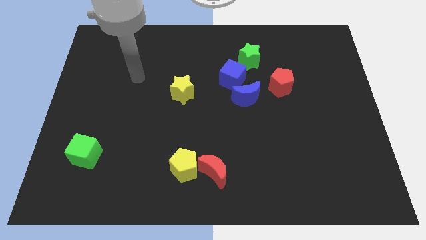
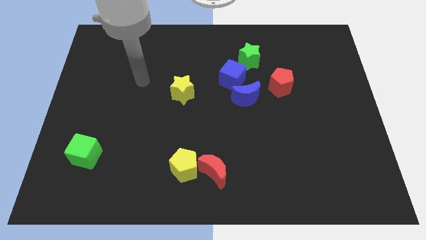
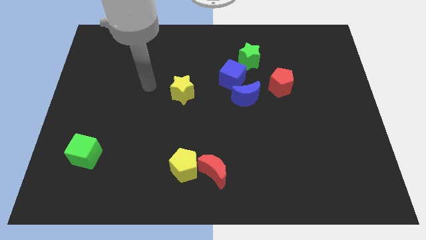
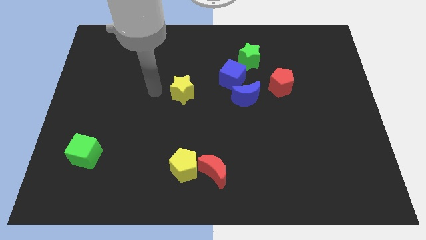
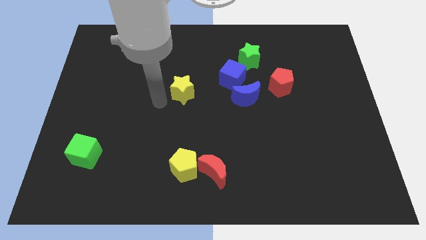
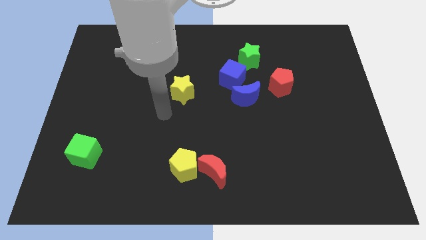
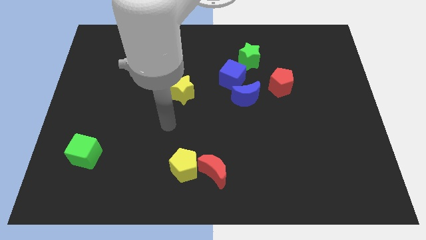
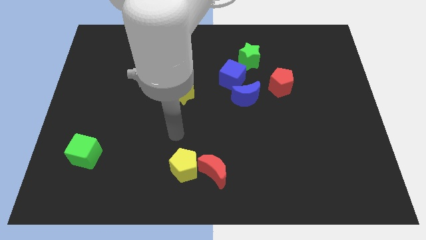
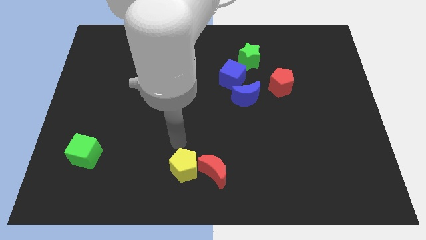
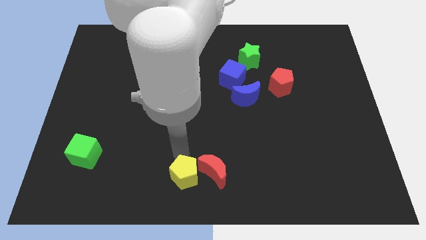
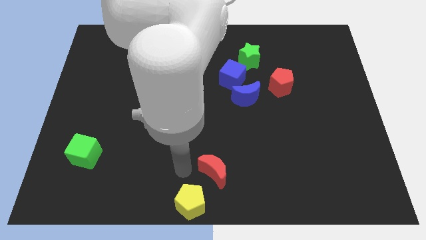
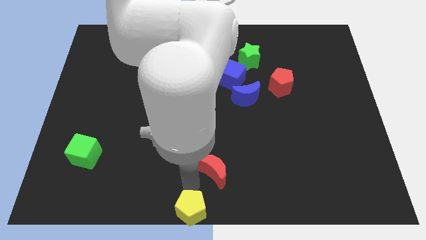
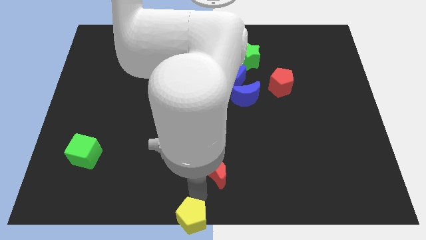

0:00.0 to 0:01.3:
pull the red moon apart from the yellow pentagon

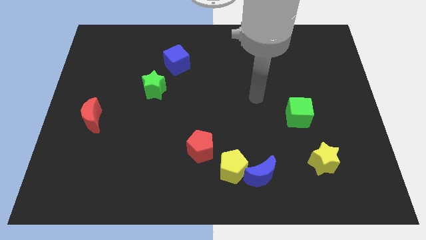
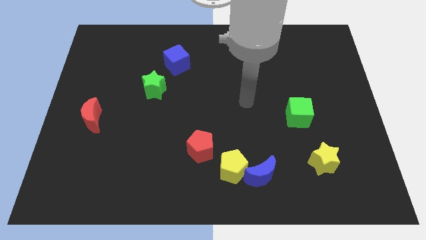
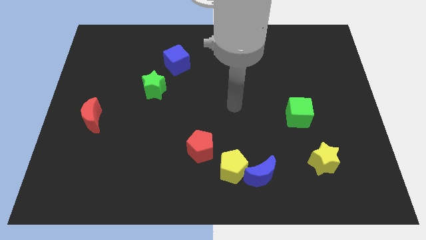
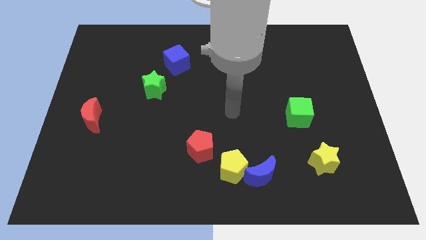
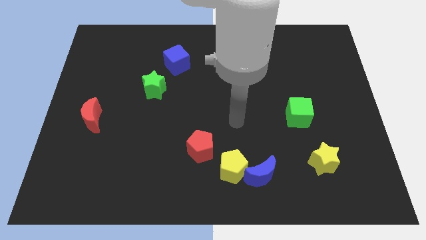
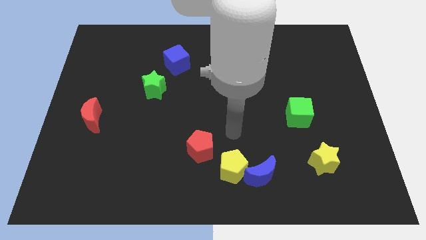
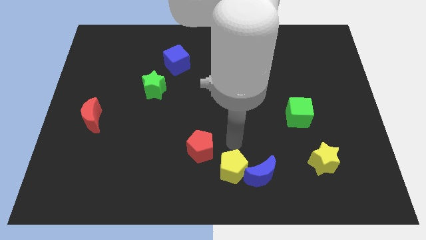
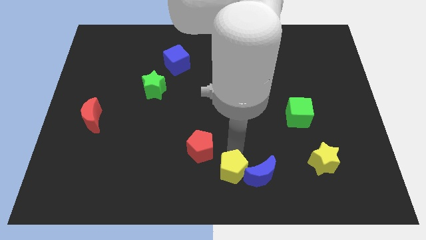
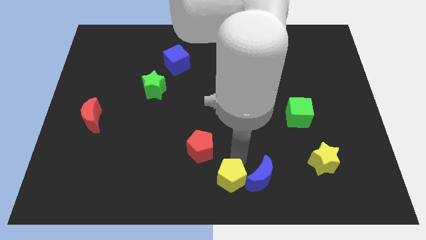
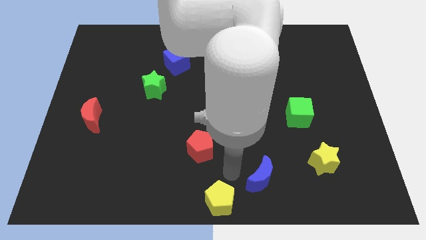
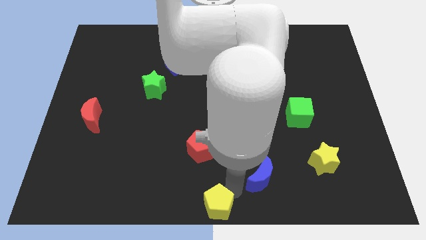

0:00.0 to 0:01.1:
separate the blue moon from the yellow pentagon

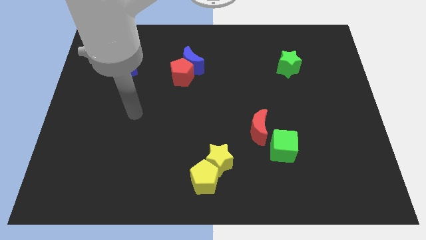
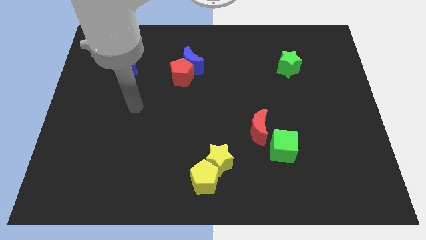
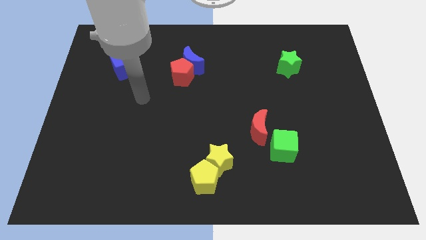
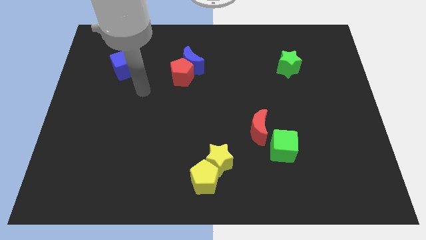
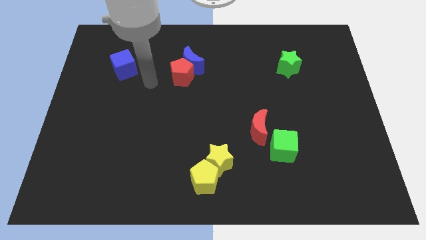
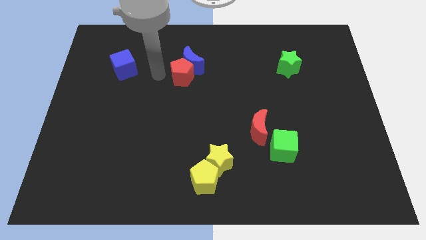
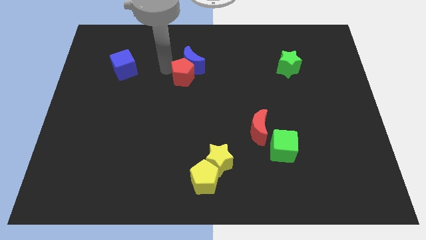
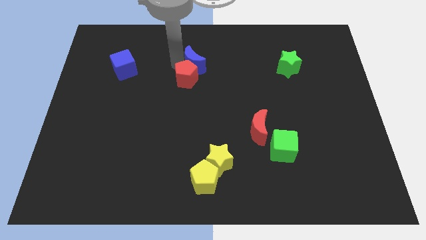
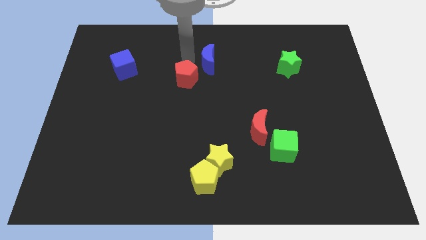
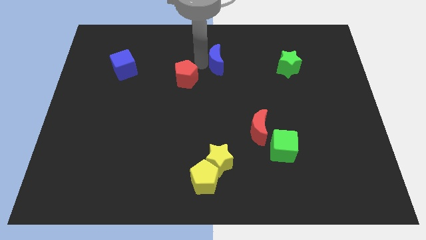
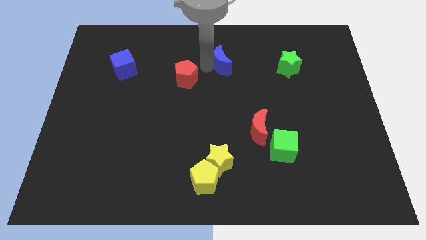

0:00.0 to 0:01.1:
separate the red pentagon from the blue moon

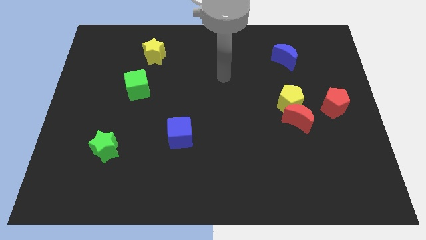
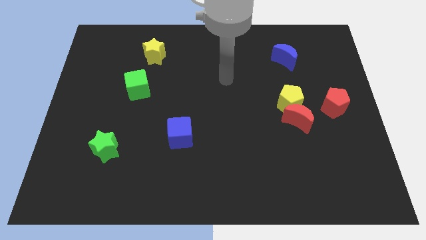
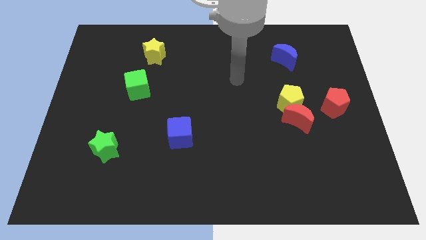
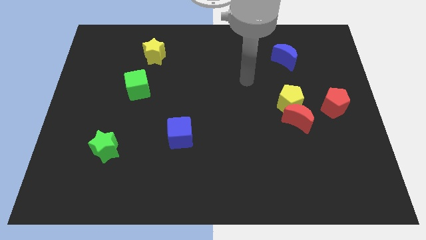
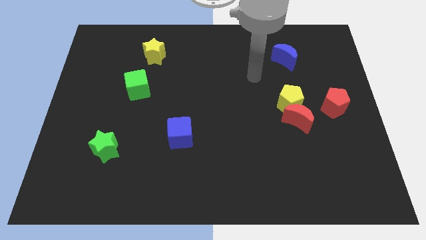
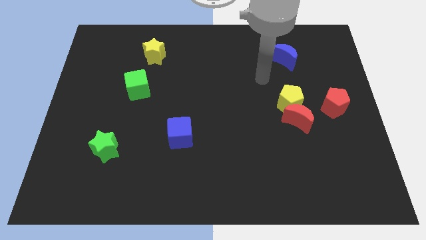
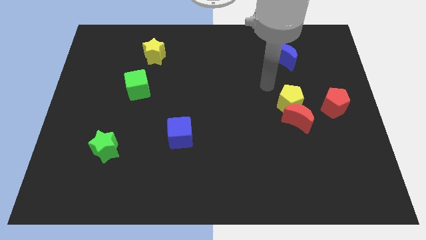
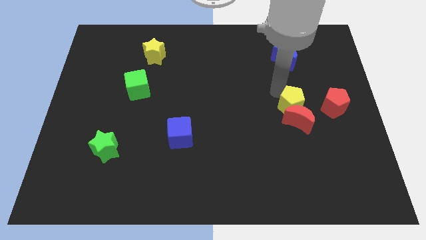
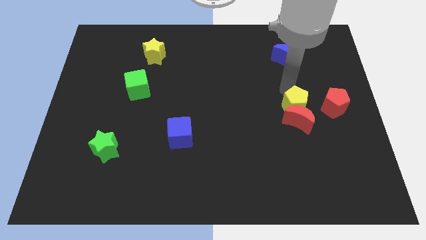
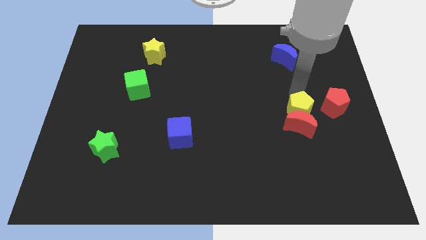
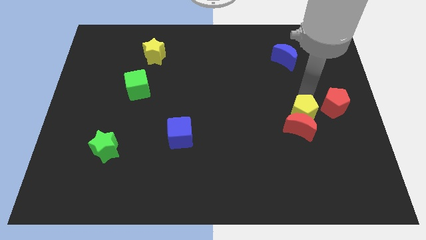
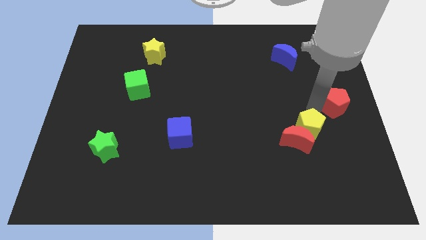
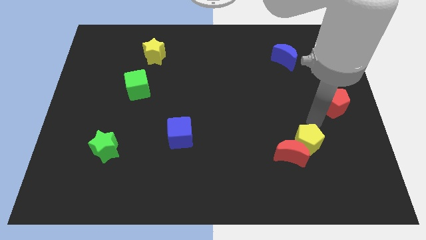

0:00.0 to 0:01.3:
move the red moon away from the yellow pentagon and red pentagon

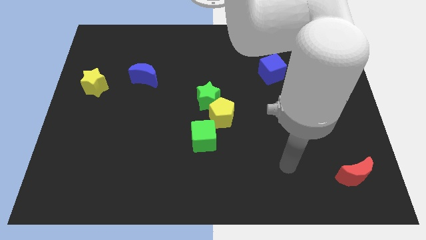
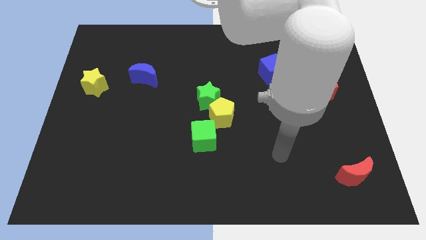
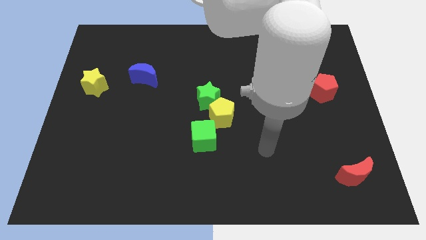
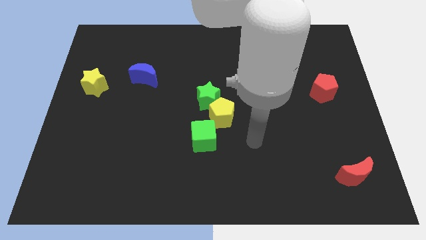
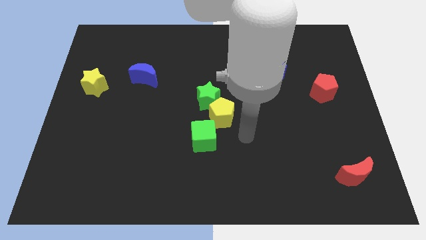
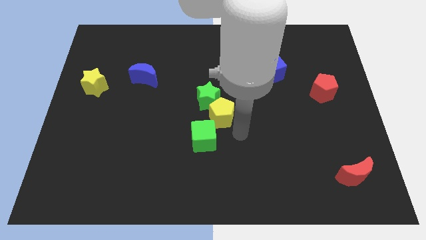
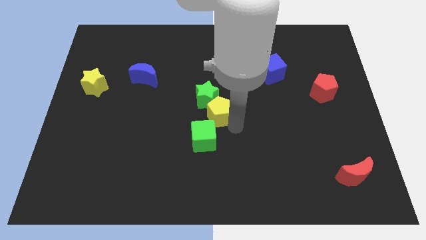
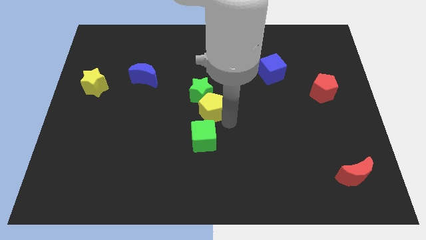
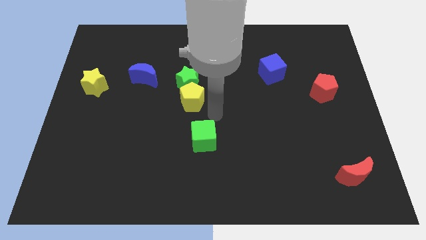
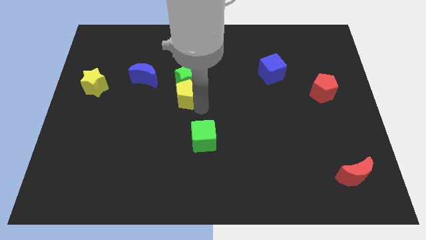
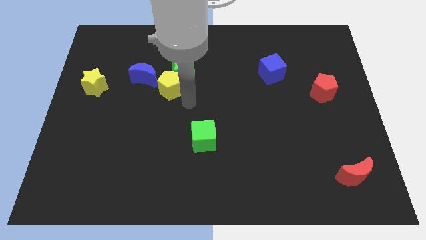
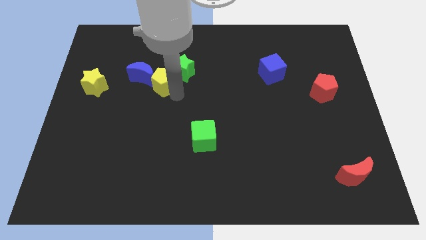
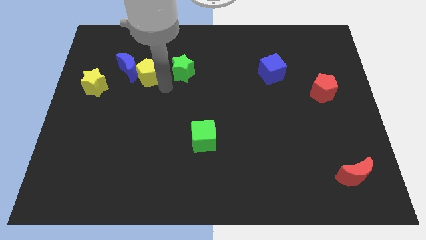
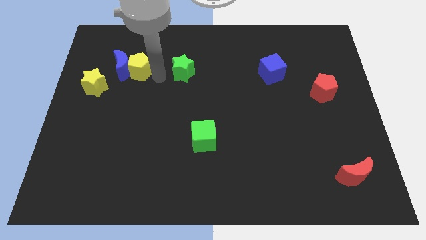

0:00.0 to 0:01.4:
move the green star away from the yellow pentagon

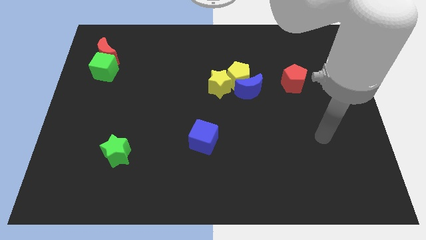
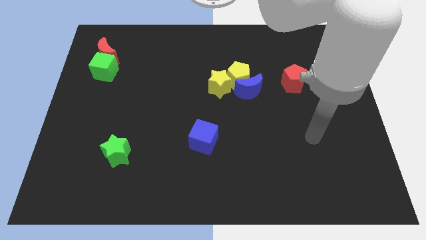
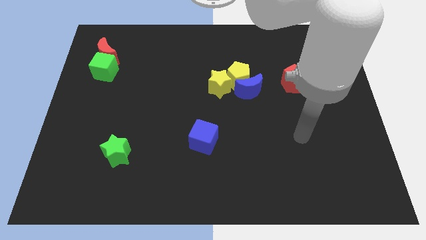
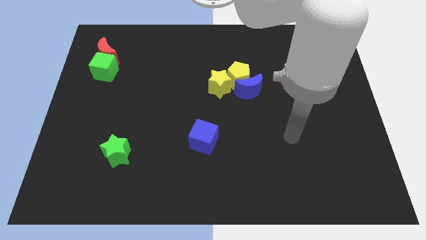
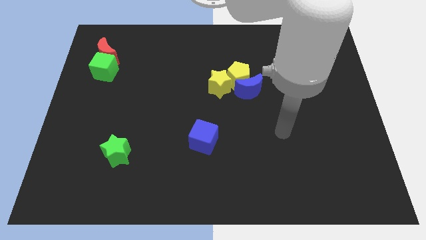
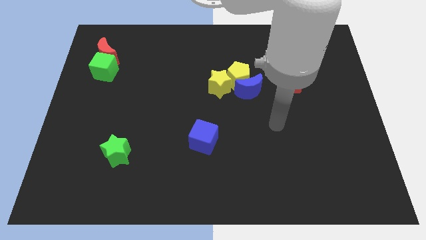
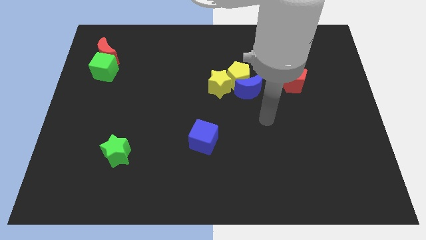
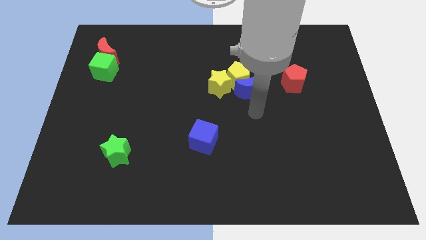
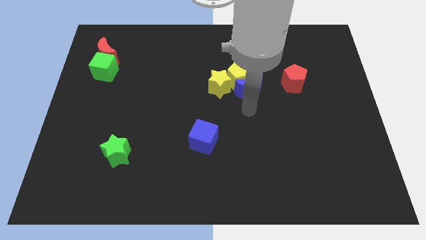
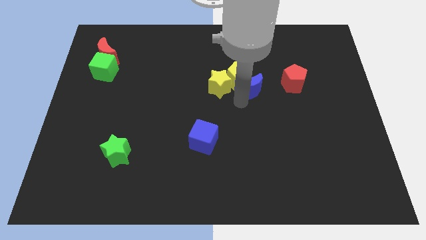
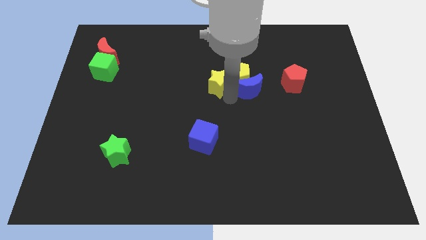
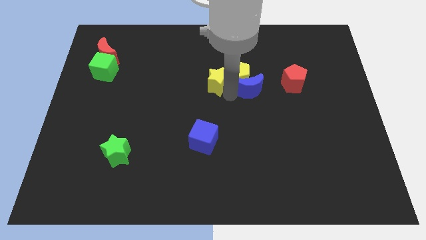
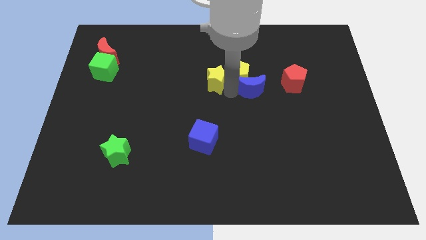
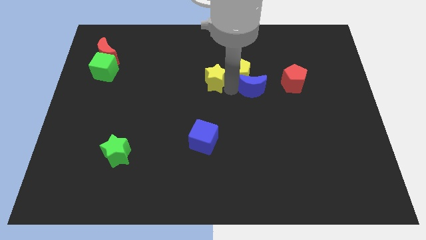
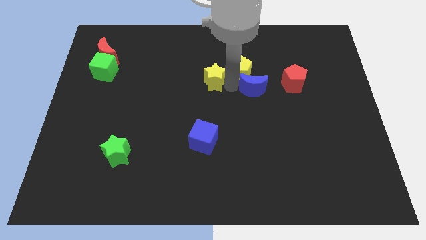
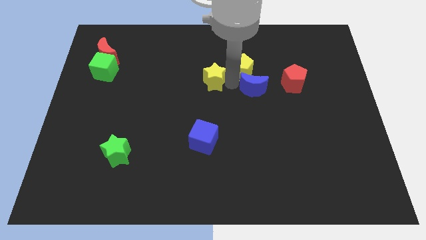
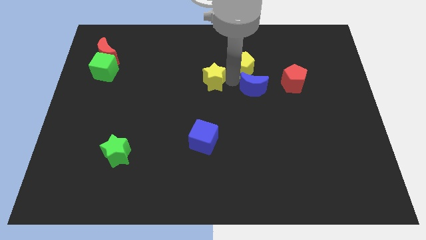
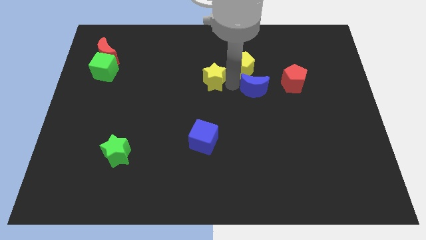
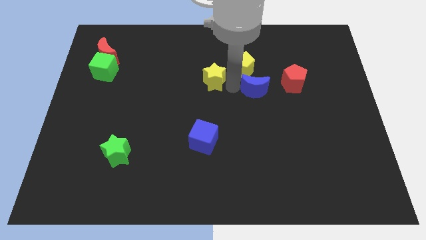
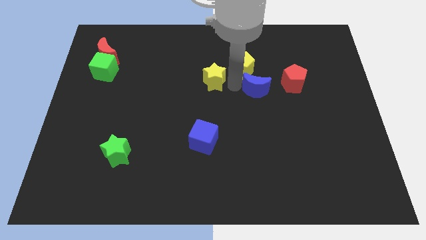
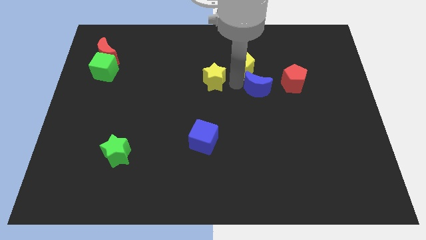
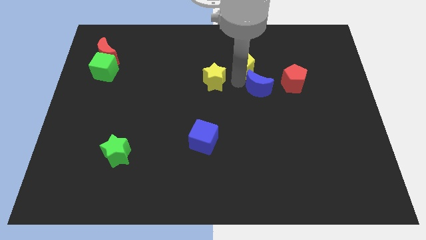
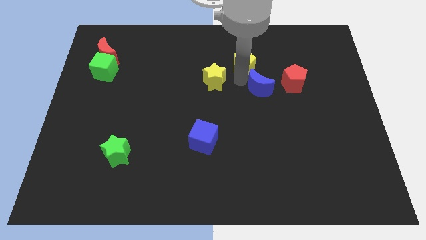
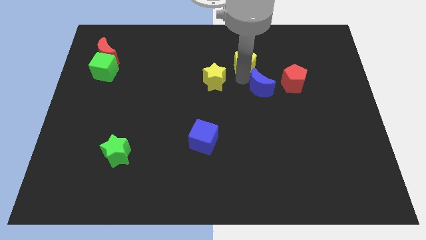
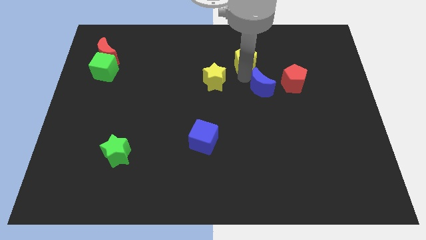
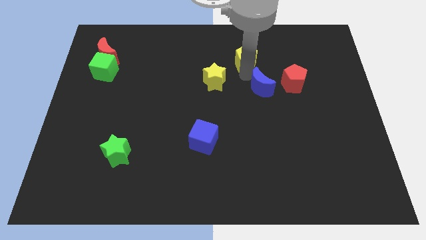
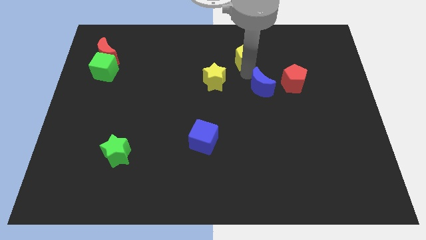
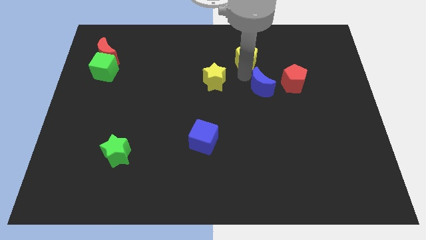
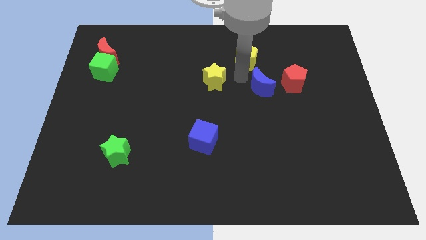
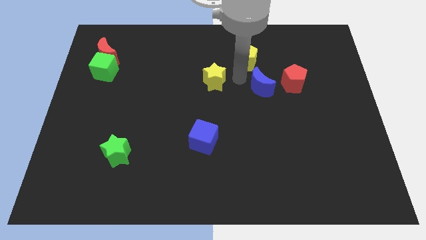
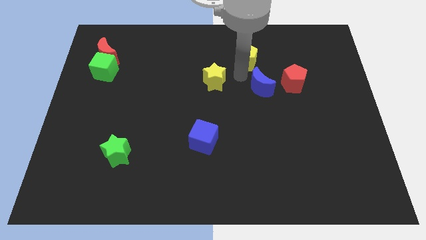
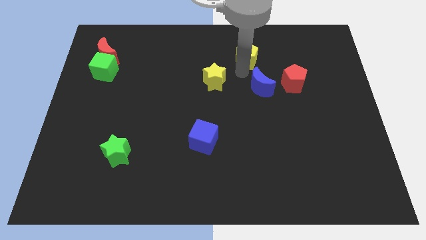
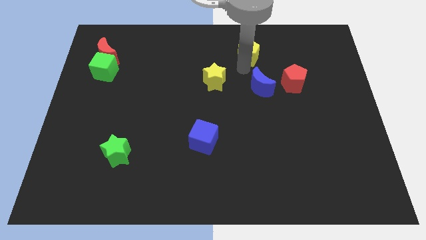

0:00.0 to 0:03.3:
pull the yellow pentagon apart from the blue moon and yellow star
